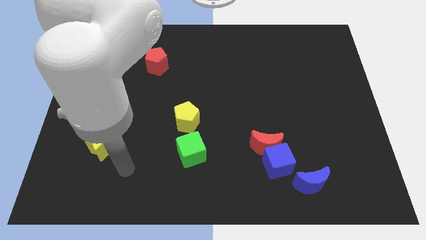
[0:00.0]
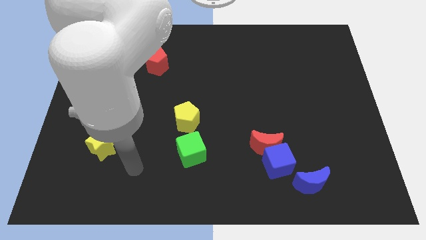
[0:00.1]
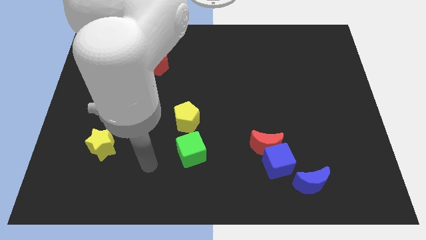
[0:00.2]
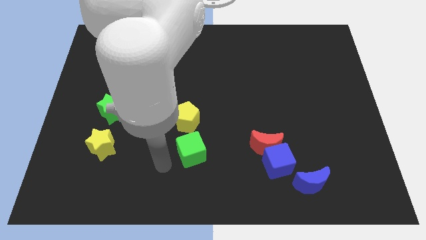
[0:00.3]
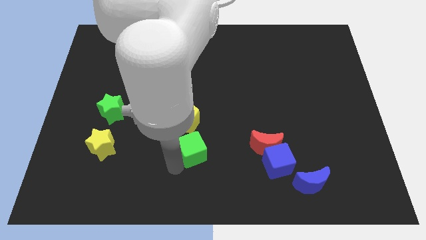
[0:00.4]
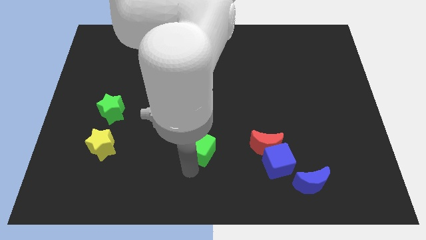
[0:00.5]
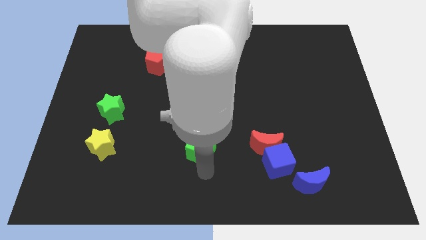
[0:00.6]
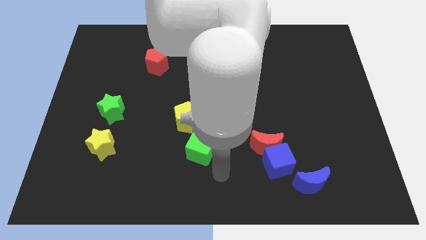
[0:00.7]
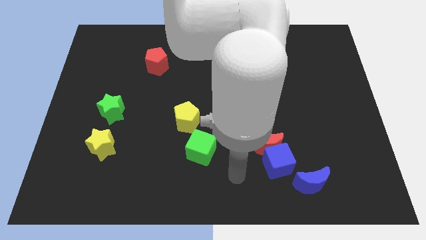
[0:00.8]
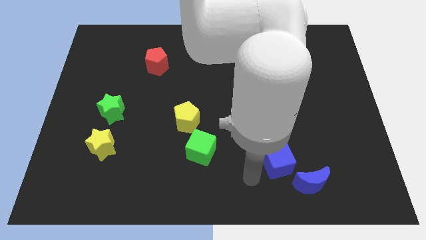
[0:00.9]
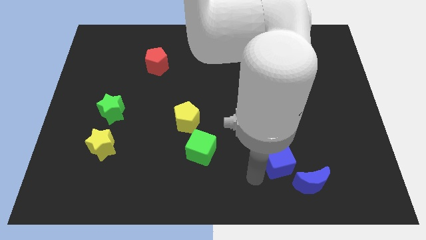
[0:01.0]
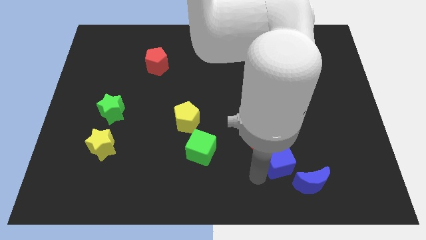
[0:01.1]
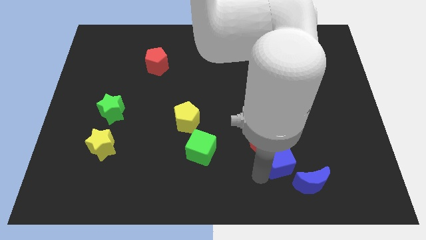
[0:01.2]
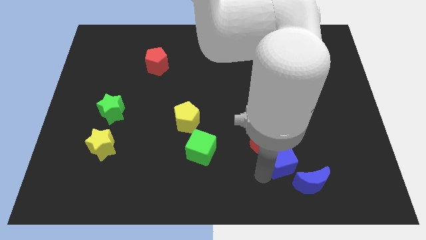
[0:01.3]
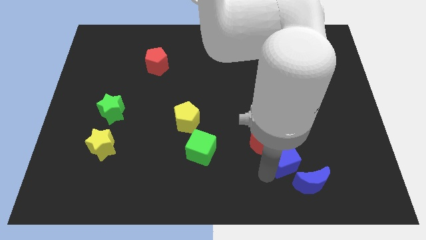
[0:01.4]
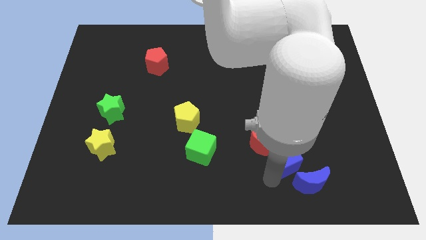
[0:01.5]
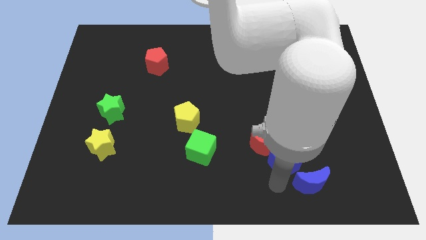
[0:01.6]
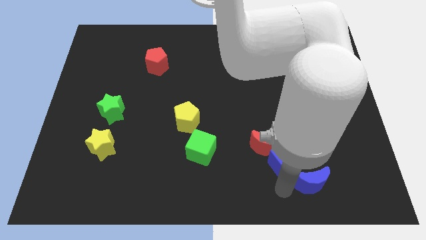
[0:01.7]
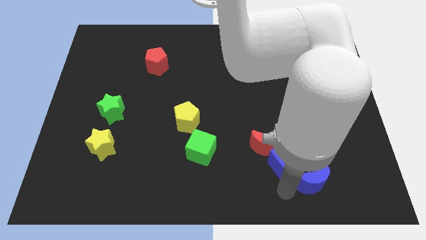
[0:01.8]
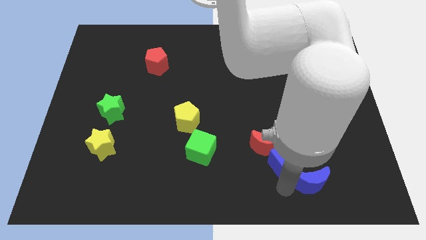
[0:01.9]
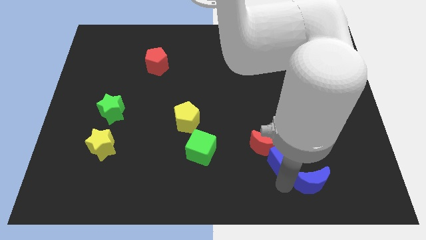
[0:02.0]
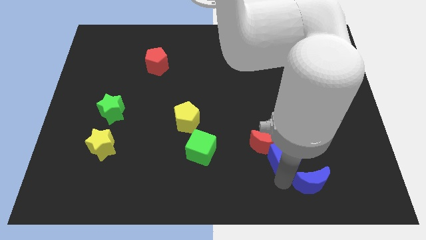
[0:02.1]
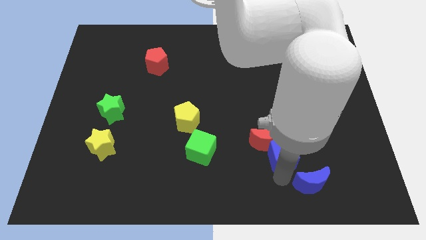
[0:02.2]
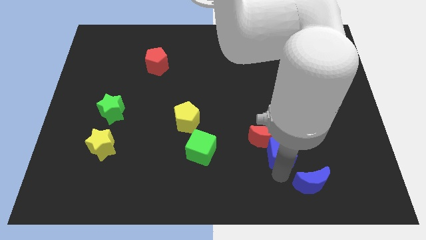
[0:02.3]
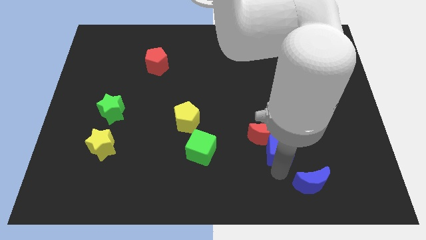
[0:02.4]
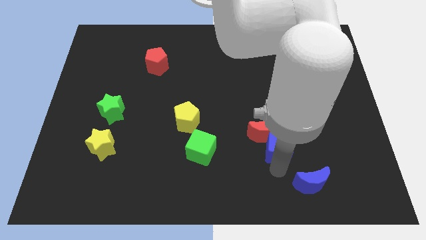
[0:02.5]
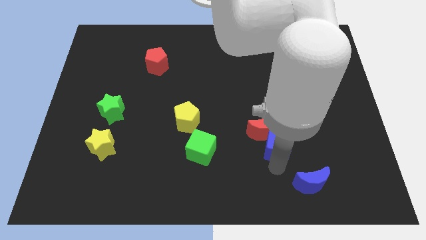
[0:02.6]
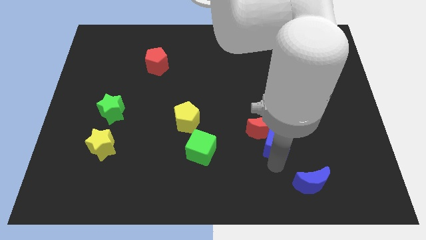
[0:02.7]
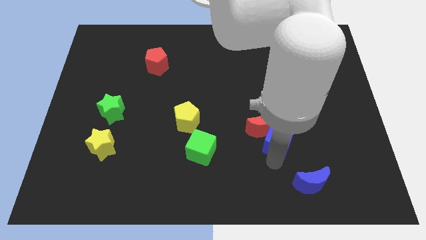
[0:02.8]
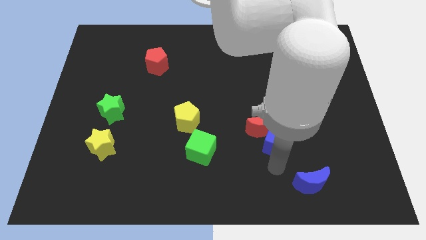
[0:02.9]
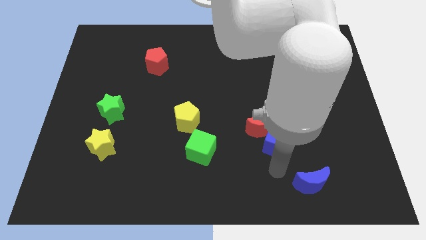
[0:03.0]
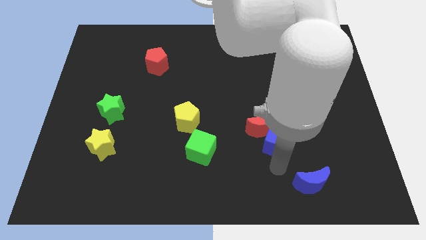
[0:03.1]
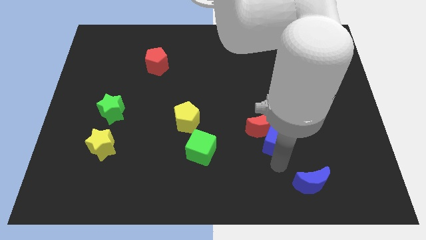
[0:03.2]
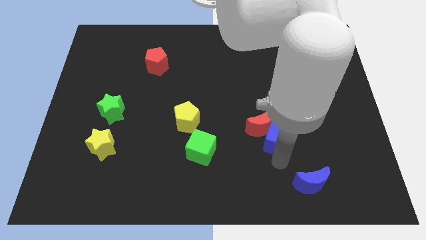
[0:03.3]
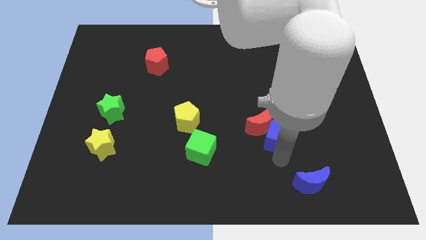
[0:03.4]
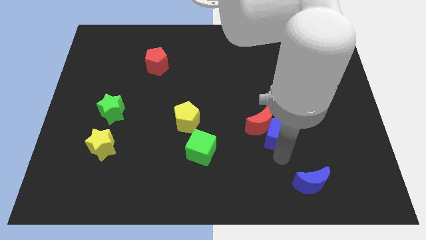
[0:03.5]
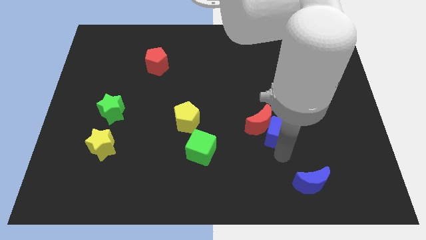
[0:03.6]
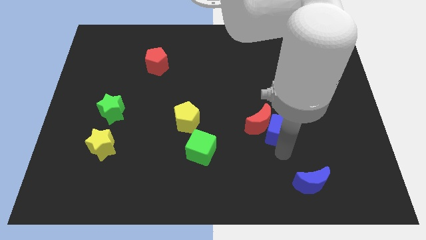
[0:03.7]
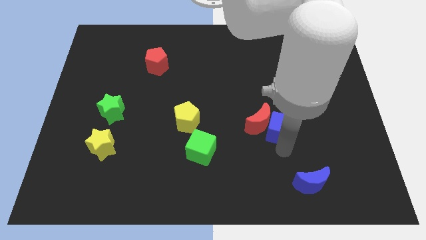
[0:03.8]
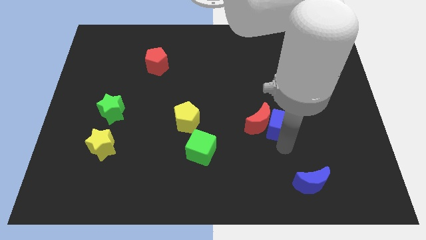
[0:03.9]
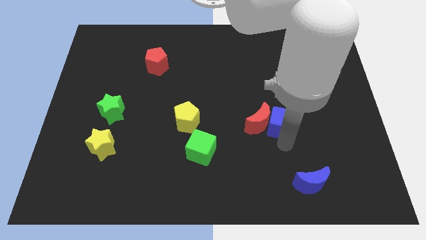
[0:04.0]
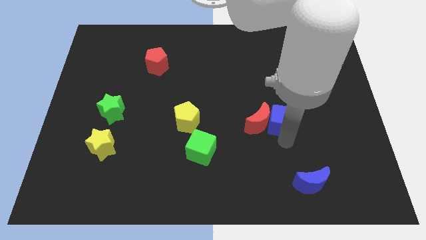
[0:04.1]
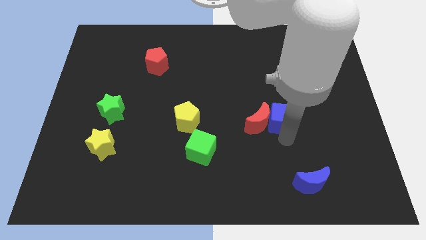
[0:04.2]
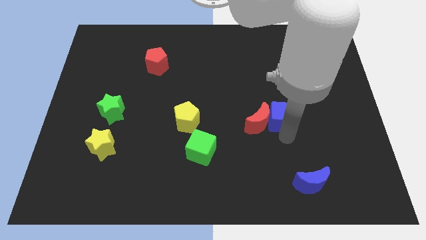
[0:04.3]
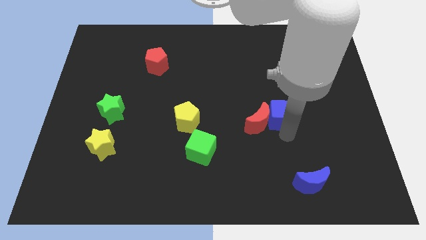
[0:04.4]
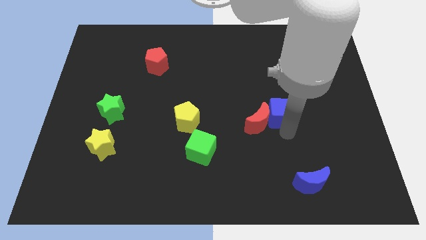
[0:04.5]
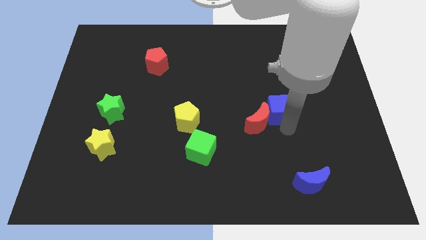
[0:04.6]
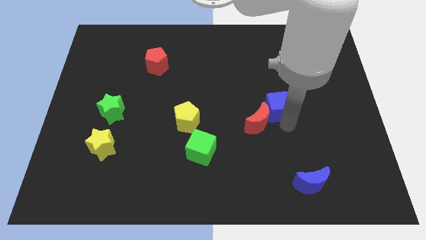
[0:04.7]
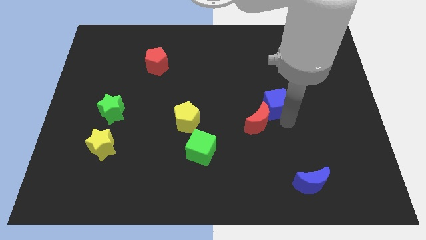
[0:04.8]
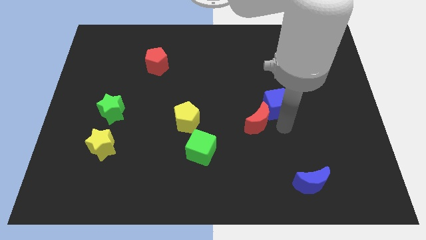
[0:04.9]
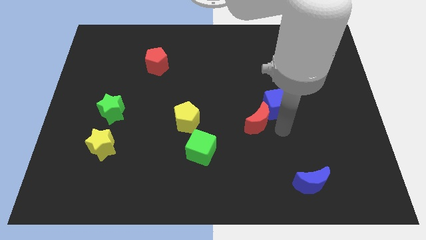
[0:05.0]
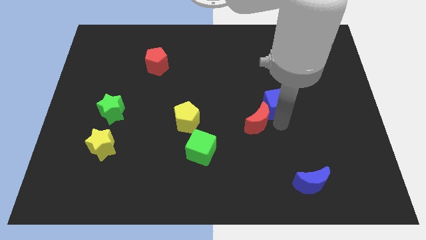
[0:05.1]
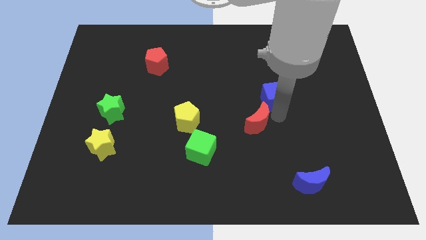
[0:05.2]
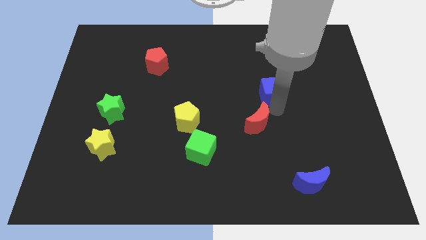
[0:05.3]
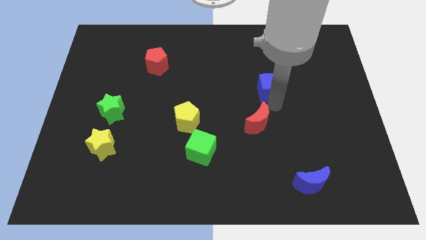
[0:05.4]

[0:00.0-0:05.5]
push the blue cube upwards

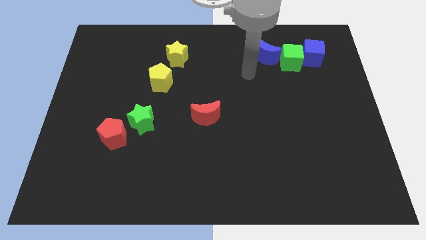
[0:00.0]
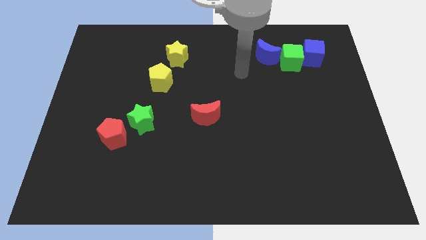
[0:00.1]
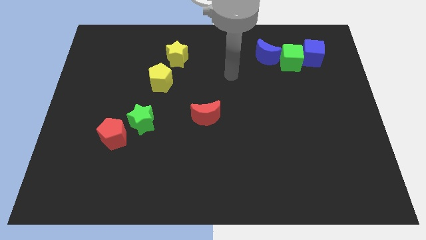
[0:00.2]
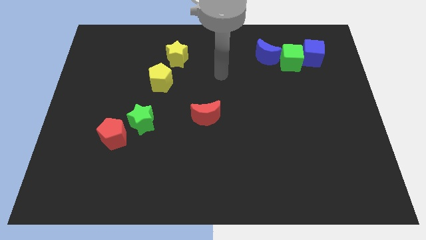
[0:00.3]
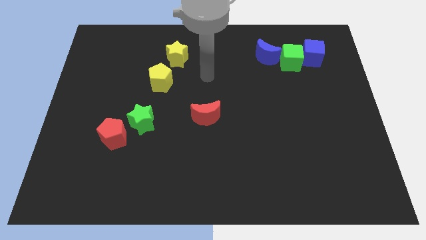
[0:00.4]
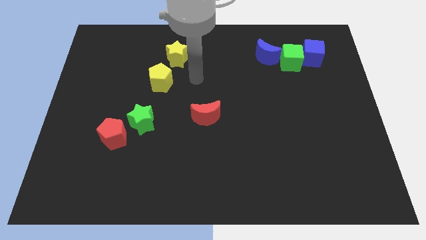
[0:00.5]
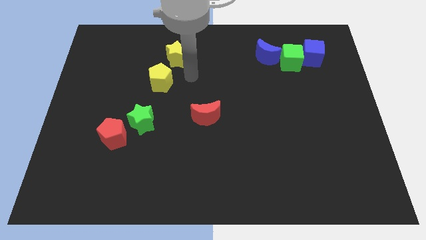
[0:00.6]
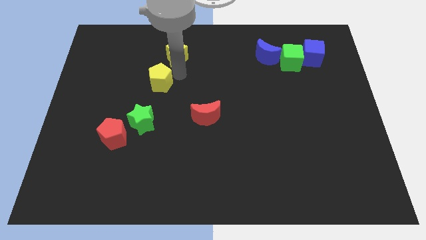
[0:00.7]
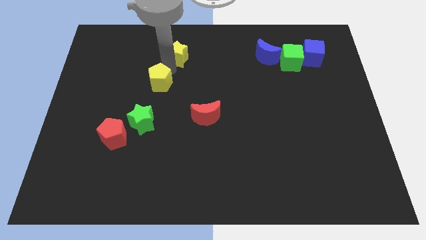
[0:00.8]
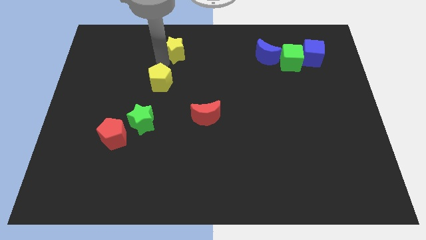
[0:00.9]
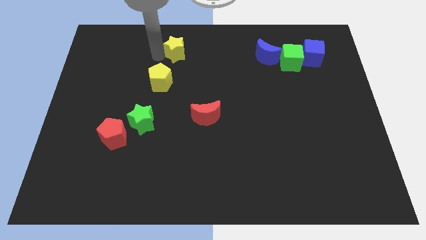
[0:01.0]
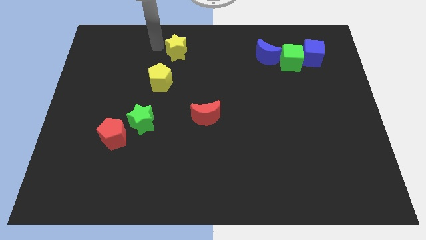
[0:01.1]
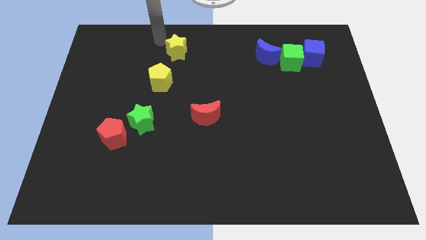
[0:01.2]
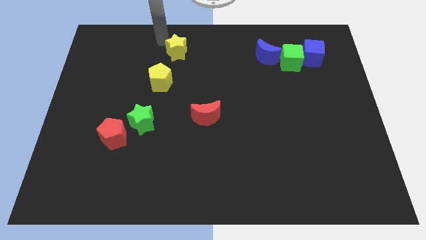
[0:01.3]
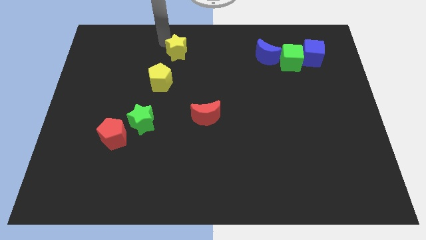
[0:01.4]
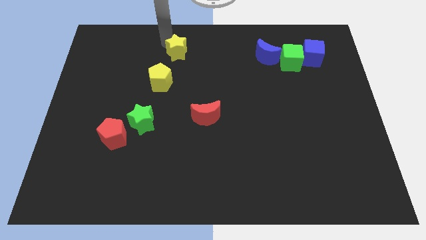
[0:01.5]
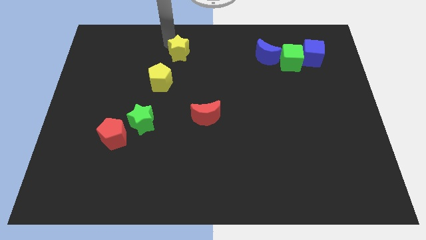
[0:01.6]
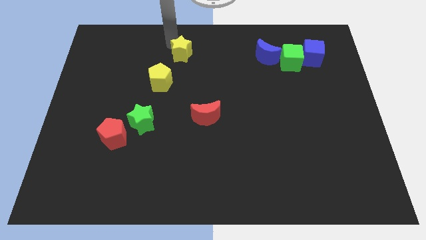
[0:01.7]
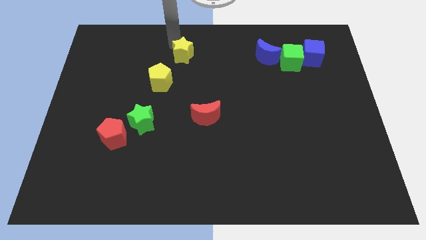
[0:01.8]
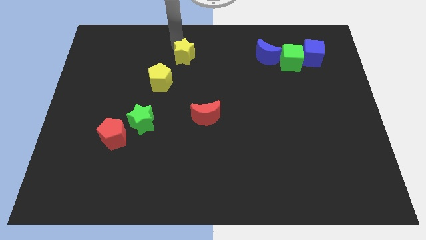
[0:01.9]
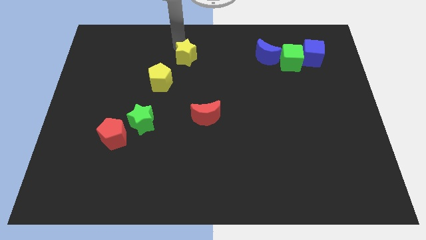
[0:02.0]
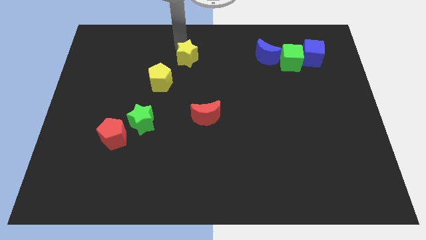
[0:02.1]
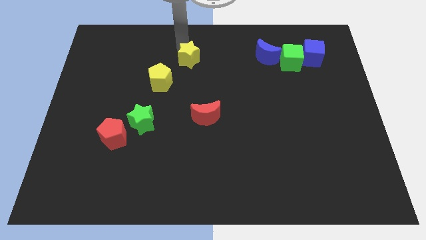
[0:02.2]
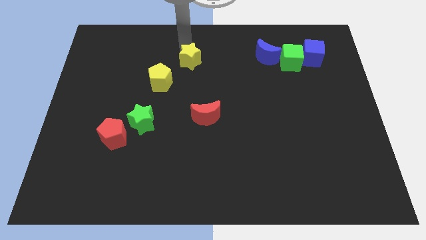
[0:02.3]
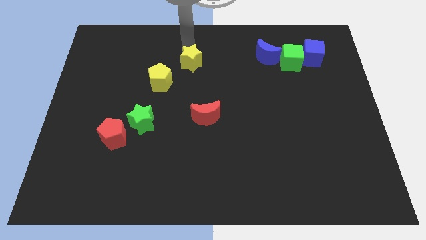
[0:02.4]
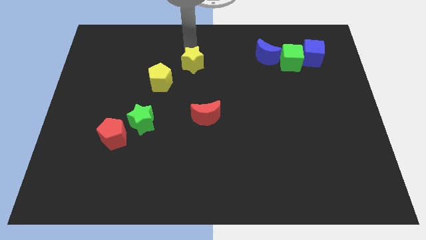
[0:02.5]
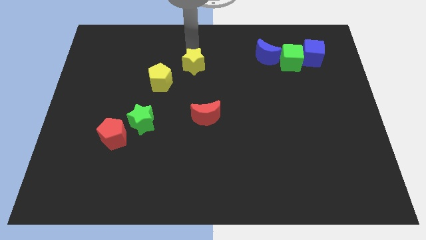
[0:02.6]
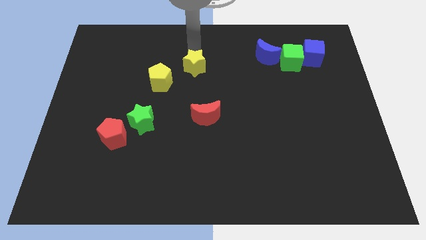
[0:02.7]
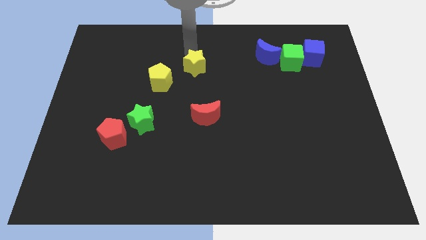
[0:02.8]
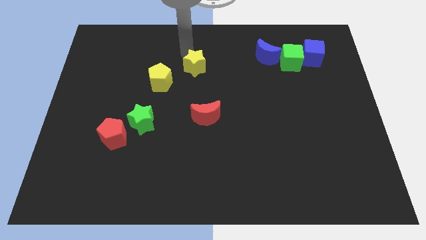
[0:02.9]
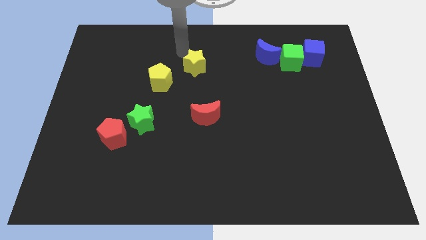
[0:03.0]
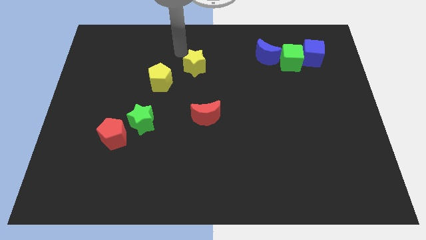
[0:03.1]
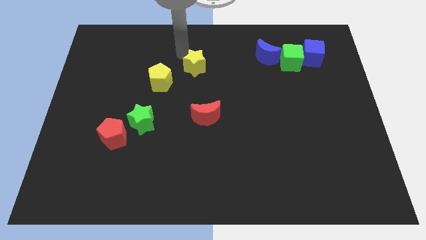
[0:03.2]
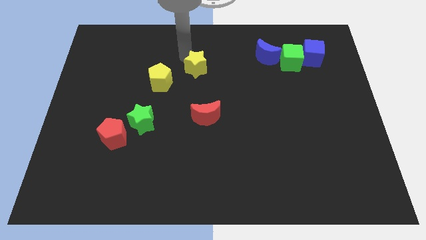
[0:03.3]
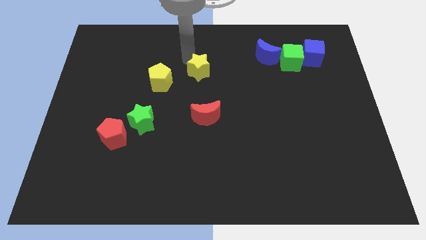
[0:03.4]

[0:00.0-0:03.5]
slightly push the yellow star down and right
